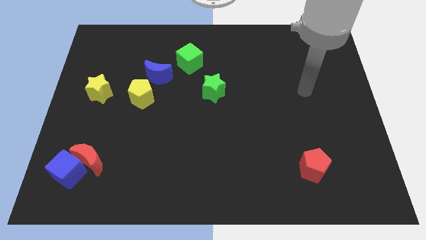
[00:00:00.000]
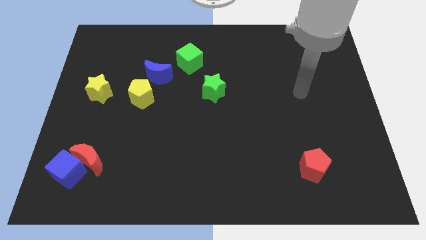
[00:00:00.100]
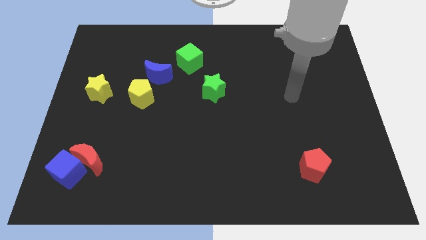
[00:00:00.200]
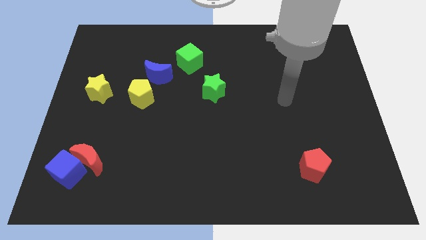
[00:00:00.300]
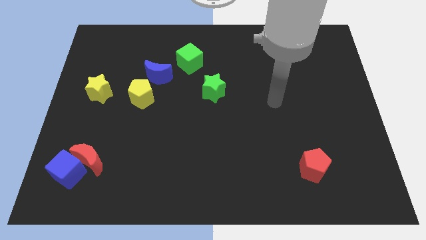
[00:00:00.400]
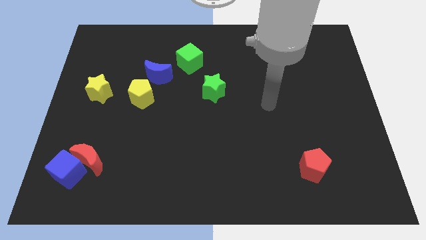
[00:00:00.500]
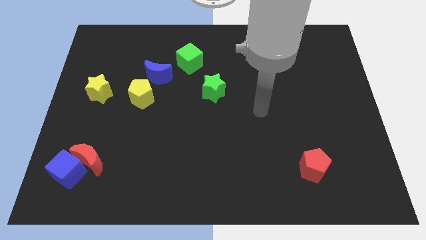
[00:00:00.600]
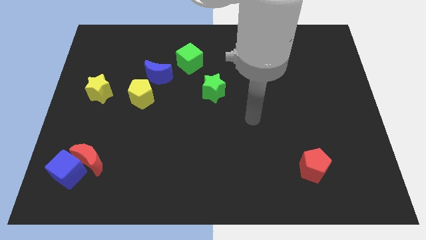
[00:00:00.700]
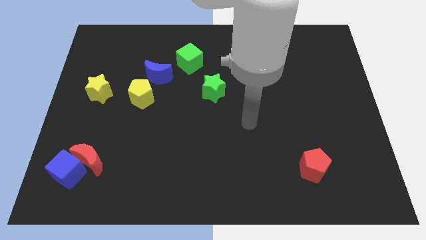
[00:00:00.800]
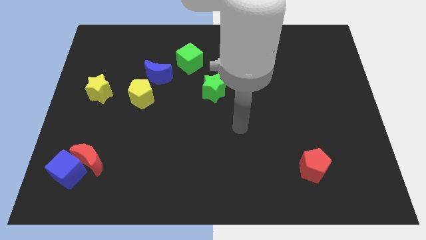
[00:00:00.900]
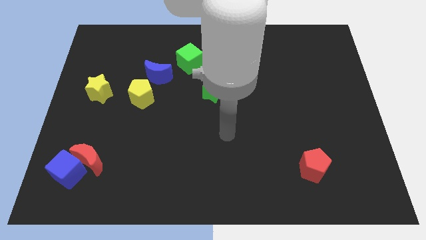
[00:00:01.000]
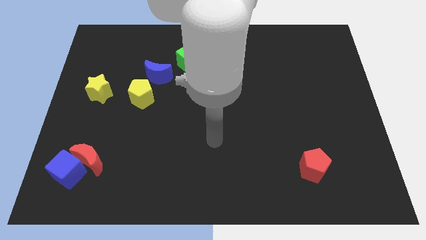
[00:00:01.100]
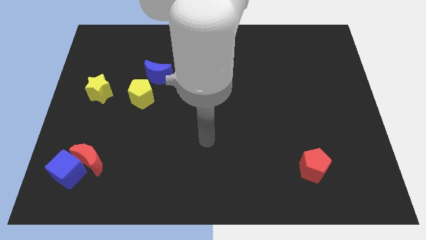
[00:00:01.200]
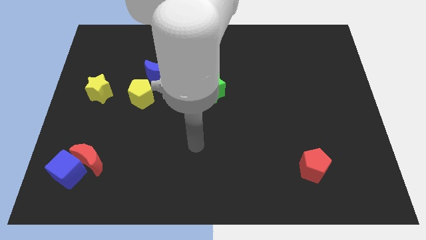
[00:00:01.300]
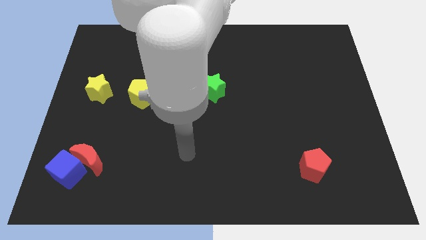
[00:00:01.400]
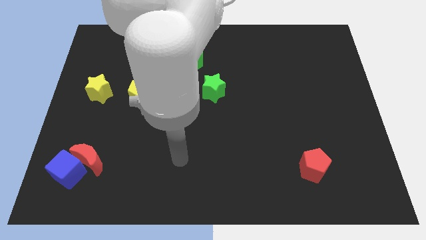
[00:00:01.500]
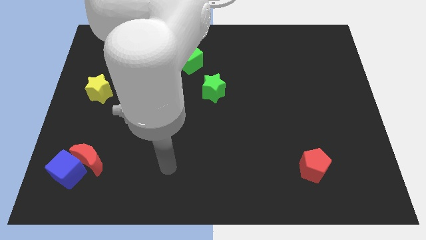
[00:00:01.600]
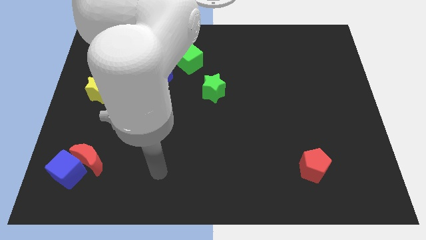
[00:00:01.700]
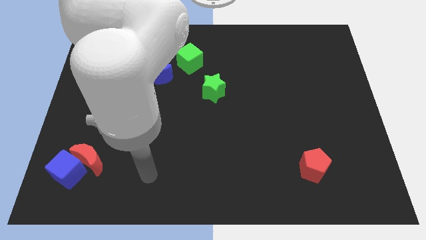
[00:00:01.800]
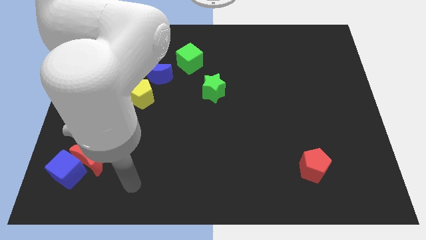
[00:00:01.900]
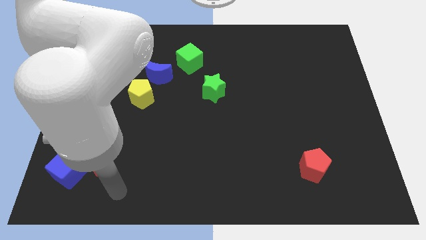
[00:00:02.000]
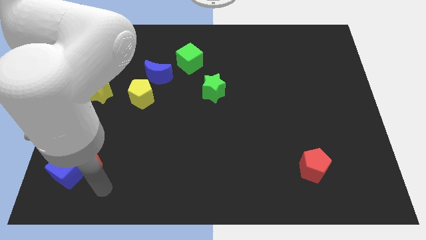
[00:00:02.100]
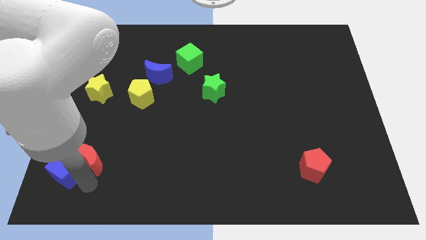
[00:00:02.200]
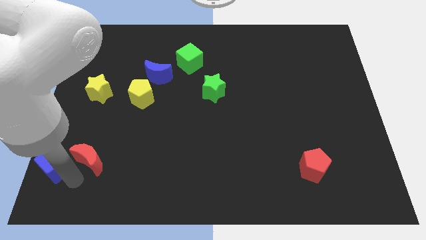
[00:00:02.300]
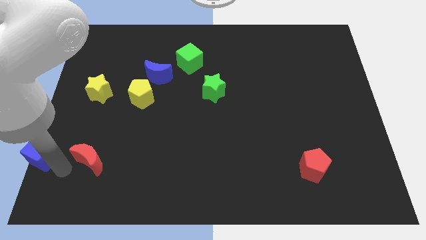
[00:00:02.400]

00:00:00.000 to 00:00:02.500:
pull the red moon apart from the blue cube

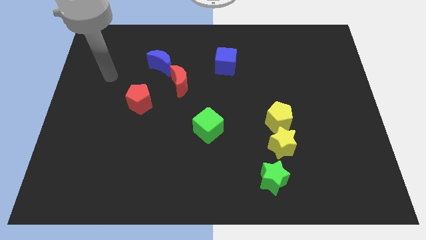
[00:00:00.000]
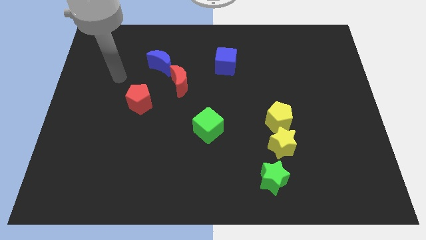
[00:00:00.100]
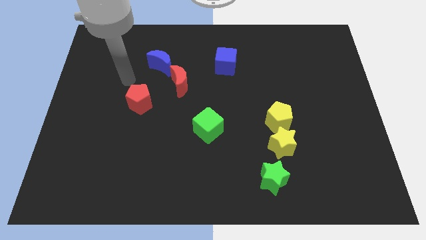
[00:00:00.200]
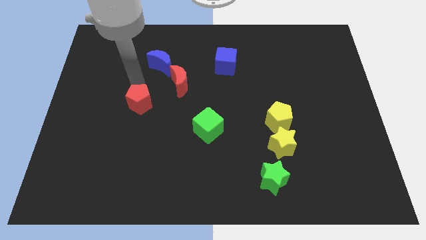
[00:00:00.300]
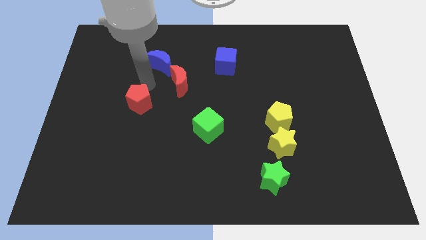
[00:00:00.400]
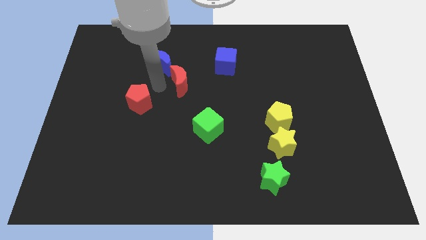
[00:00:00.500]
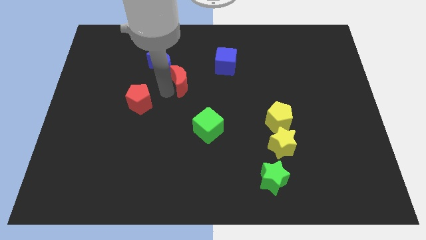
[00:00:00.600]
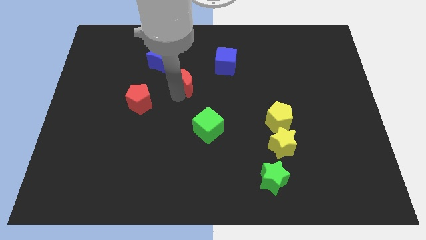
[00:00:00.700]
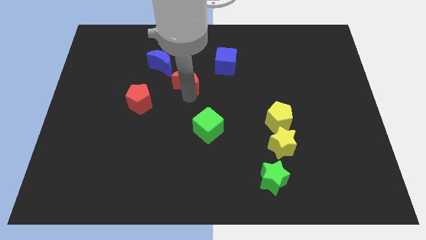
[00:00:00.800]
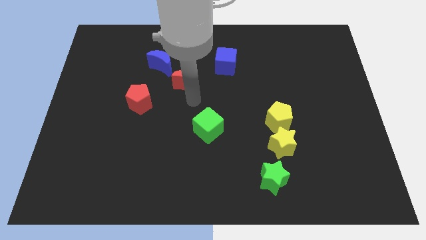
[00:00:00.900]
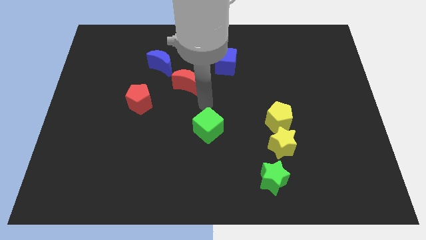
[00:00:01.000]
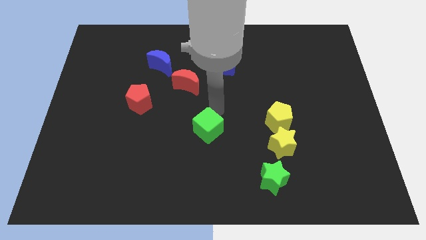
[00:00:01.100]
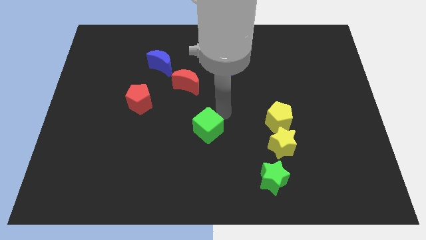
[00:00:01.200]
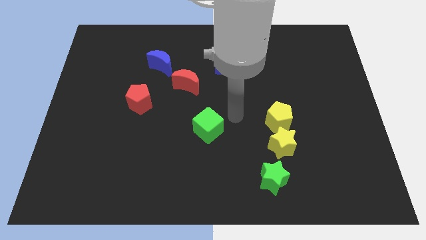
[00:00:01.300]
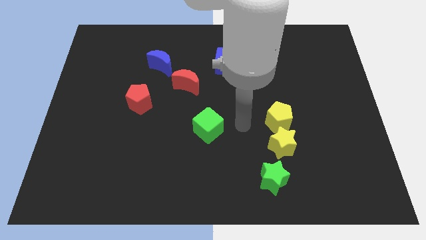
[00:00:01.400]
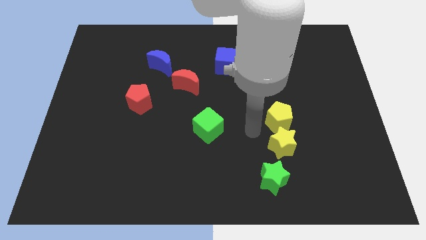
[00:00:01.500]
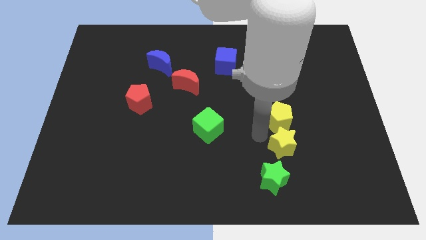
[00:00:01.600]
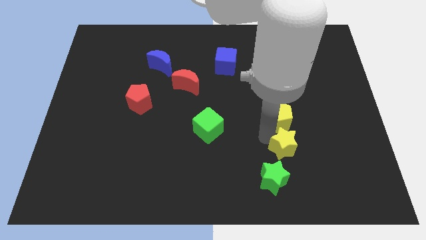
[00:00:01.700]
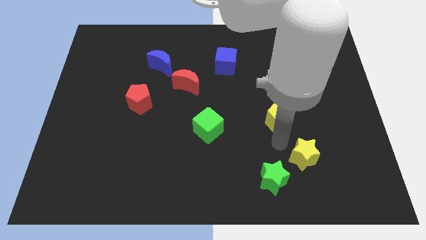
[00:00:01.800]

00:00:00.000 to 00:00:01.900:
move the yellow pentagon away from the yellow star

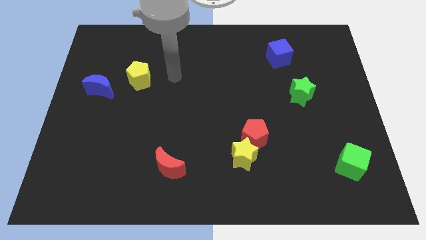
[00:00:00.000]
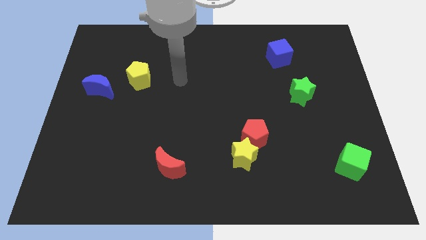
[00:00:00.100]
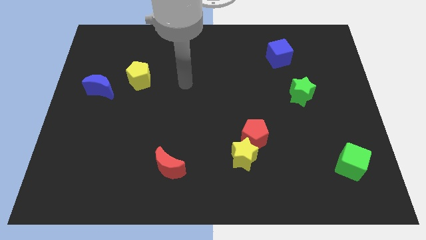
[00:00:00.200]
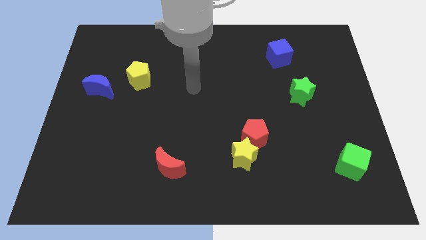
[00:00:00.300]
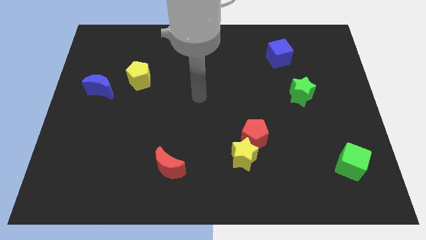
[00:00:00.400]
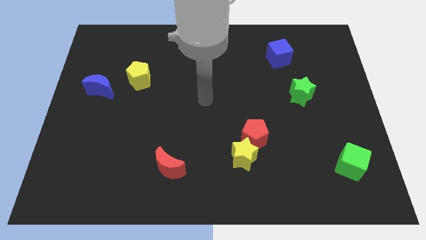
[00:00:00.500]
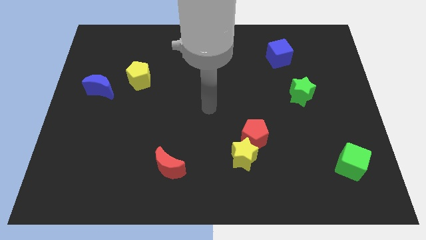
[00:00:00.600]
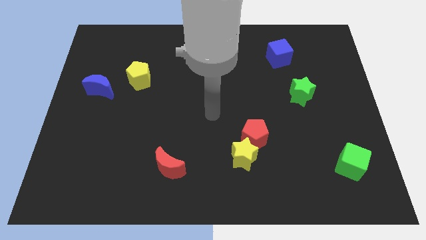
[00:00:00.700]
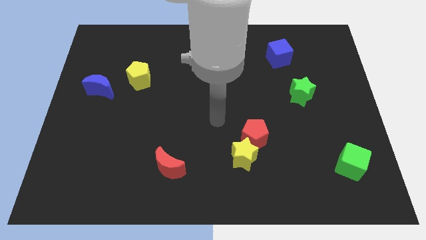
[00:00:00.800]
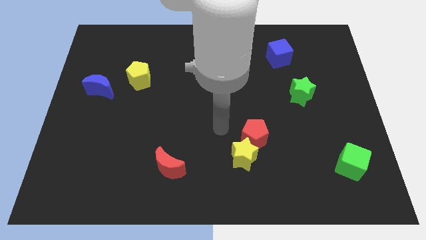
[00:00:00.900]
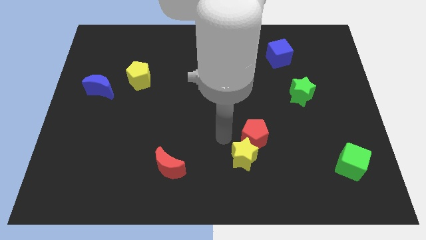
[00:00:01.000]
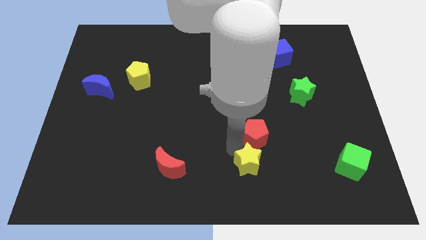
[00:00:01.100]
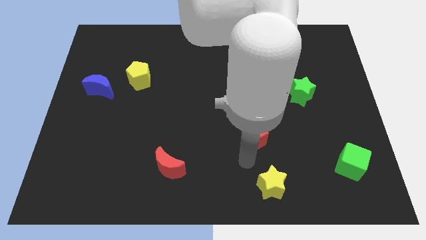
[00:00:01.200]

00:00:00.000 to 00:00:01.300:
separate the red pentagon from the yellow star

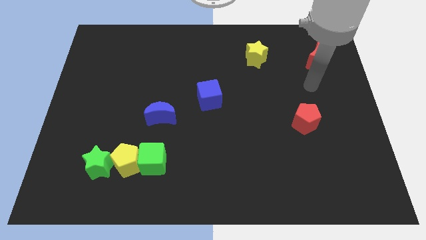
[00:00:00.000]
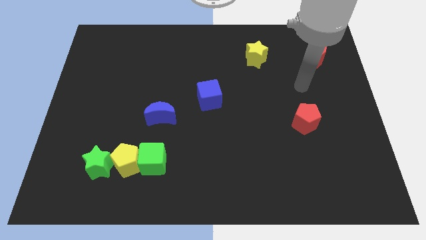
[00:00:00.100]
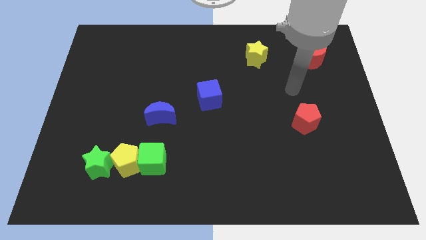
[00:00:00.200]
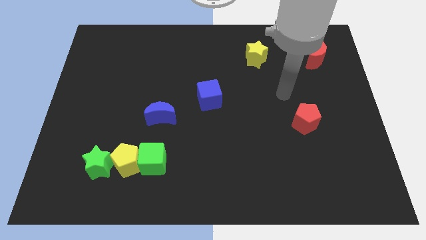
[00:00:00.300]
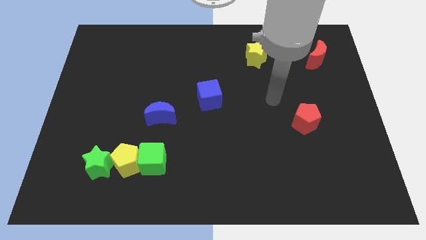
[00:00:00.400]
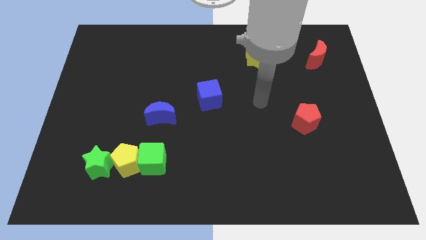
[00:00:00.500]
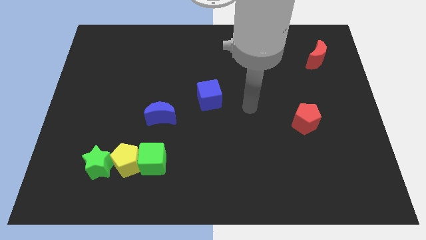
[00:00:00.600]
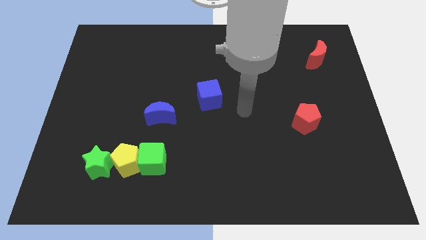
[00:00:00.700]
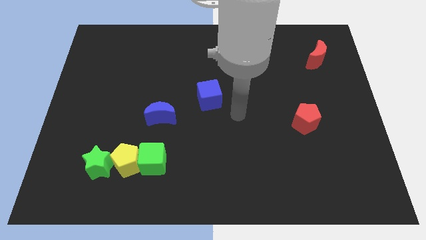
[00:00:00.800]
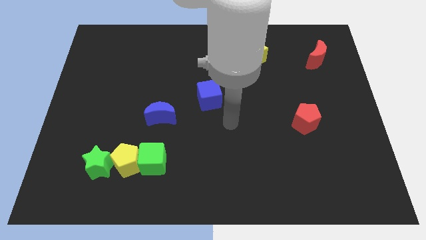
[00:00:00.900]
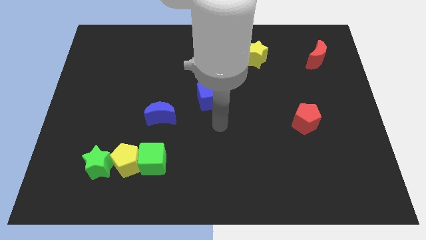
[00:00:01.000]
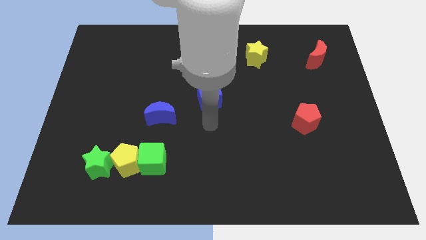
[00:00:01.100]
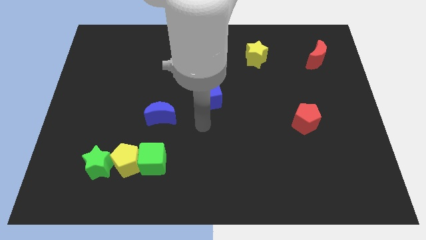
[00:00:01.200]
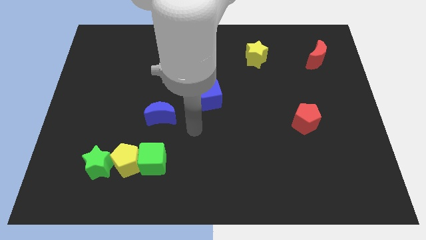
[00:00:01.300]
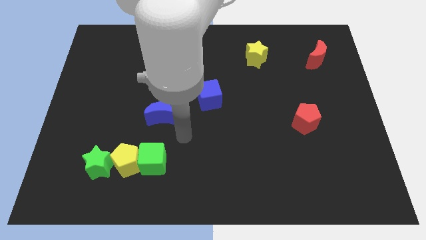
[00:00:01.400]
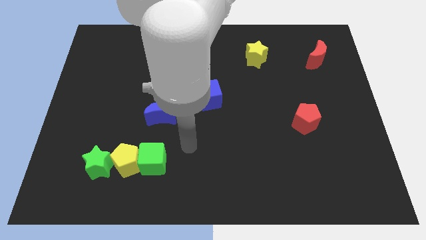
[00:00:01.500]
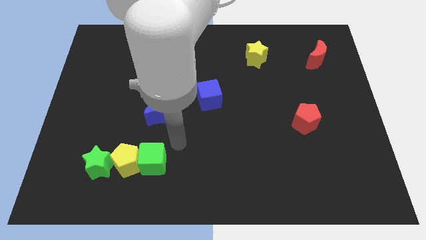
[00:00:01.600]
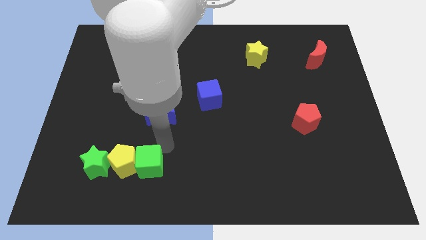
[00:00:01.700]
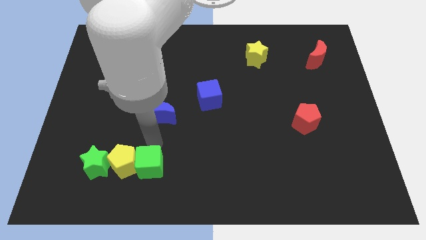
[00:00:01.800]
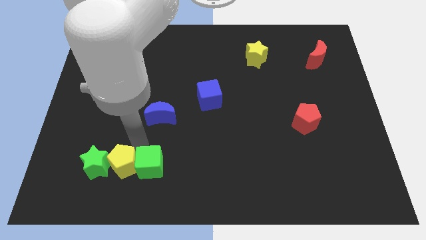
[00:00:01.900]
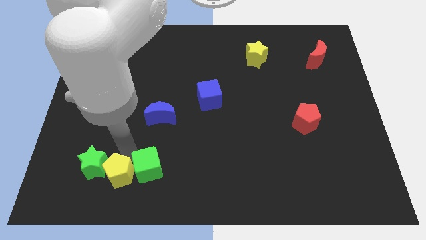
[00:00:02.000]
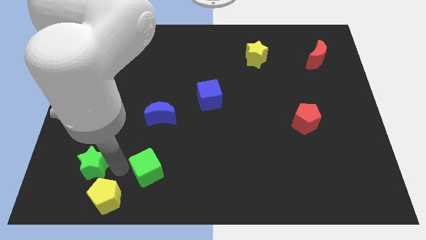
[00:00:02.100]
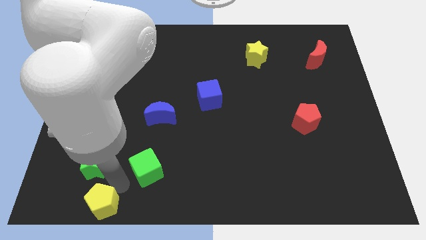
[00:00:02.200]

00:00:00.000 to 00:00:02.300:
separate the green cube from the yellow pentagon

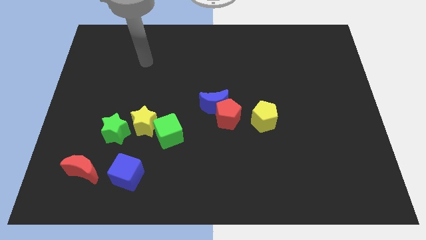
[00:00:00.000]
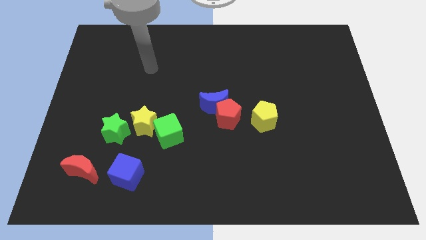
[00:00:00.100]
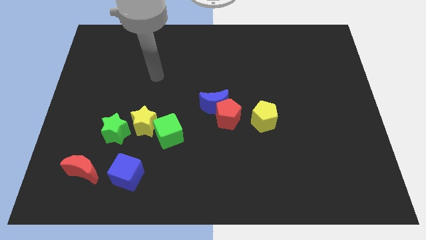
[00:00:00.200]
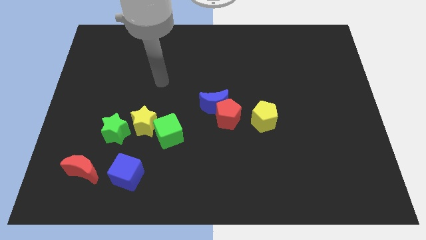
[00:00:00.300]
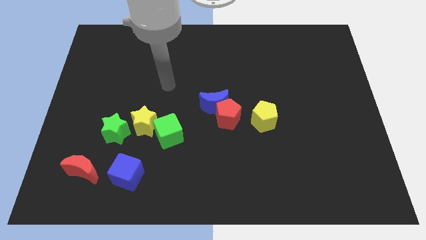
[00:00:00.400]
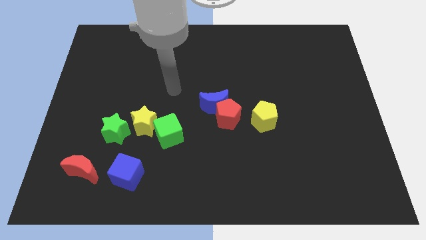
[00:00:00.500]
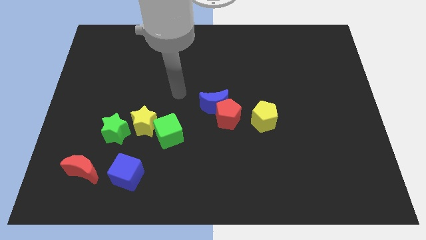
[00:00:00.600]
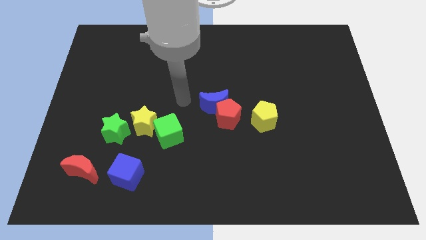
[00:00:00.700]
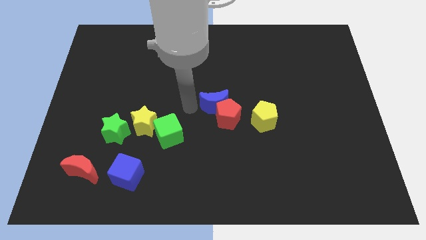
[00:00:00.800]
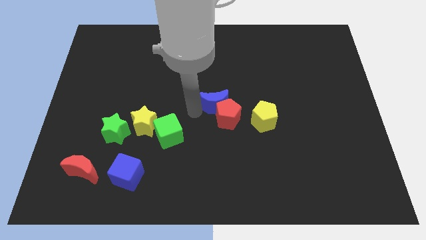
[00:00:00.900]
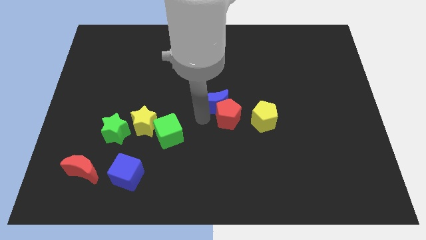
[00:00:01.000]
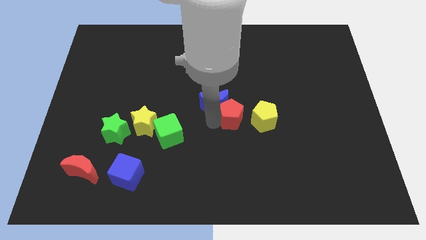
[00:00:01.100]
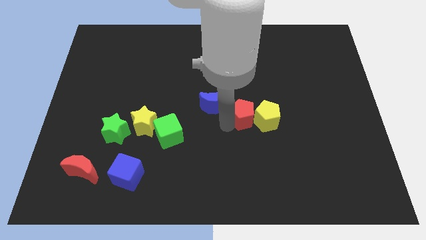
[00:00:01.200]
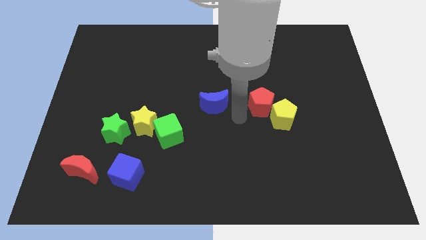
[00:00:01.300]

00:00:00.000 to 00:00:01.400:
separate the blue moon from the red pentagon
